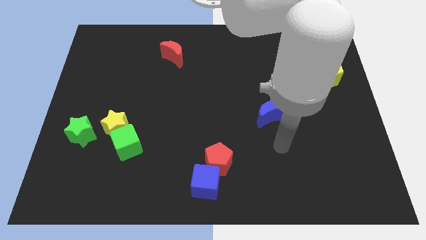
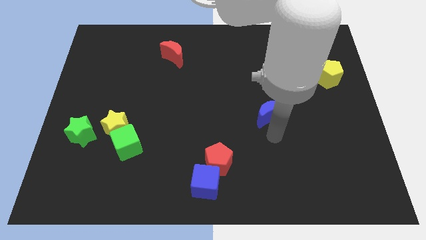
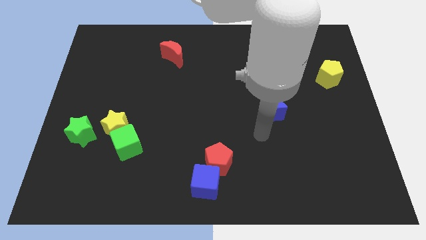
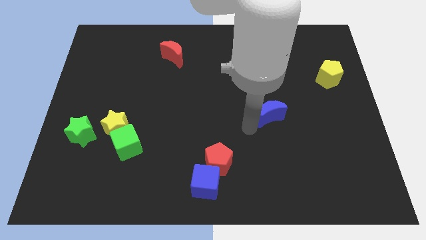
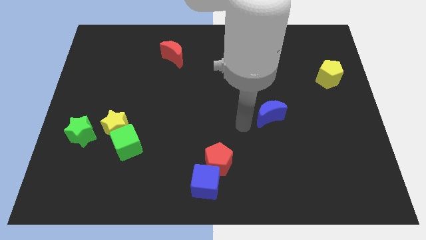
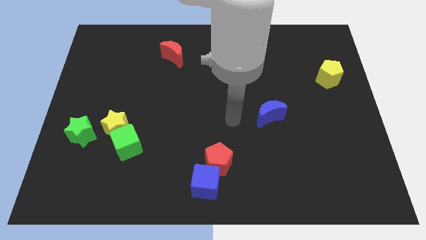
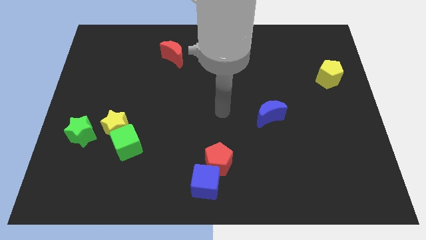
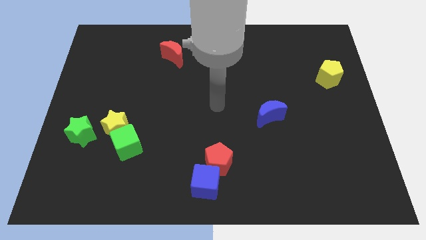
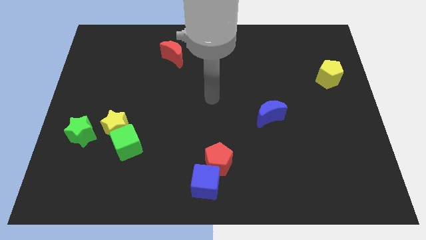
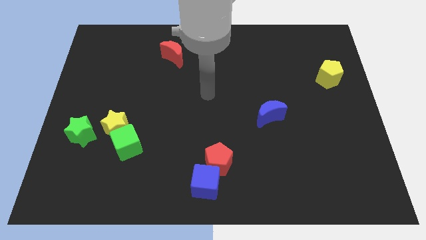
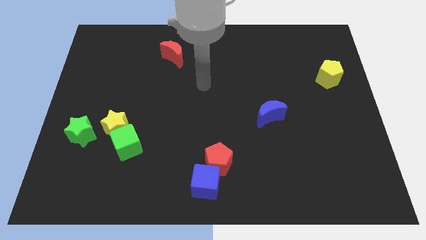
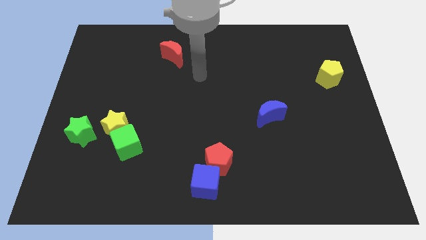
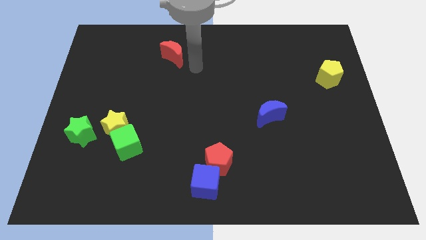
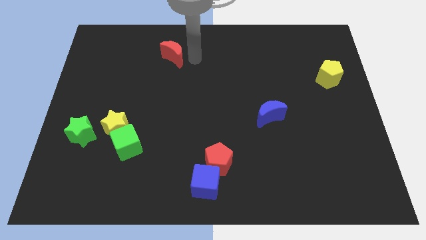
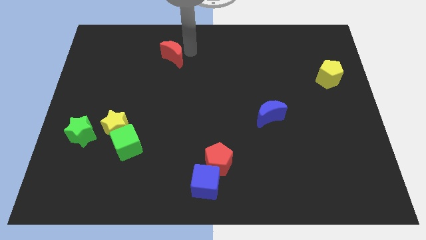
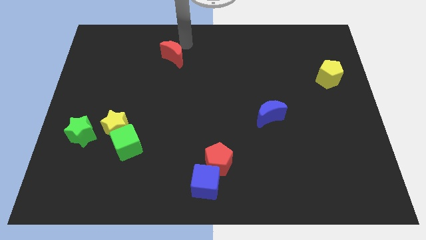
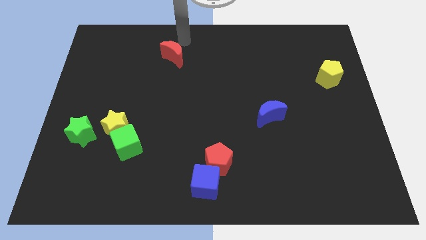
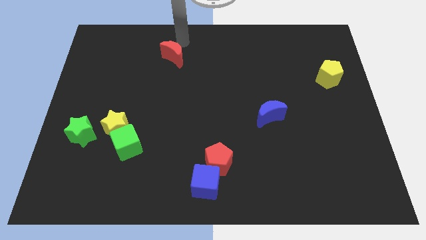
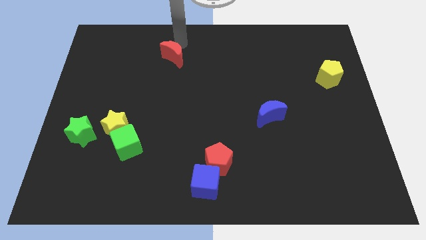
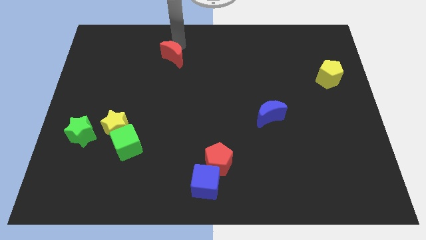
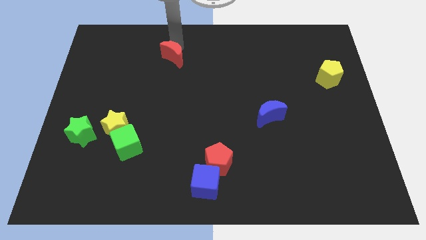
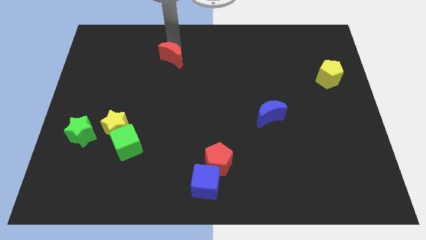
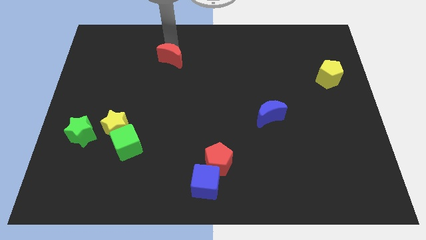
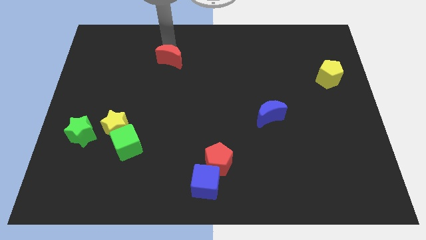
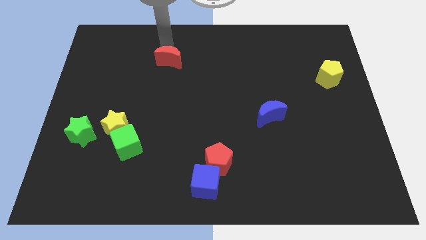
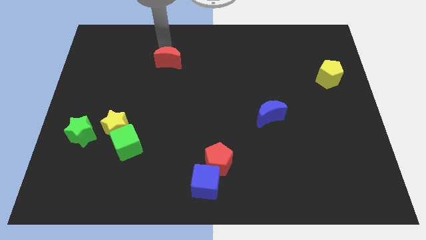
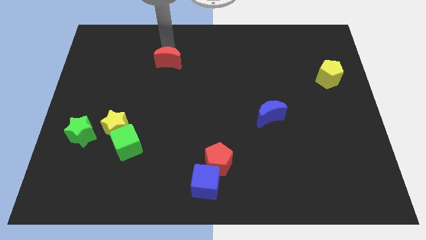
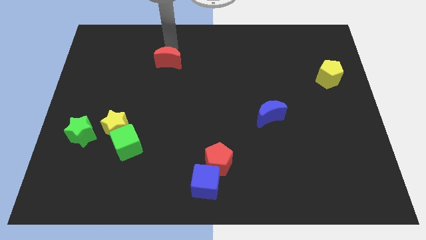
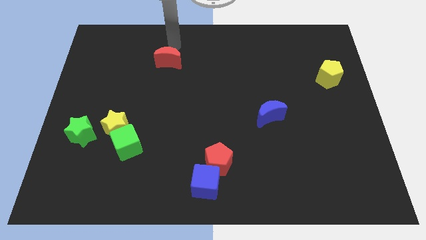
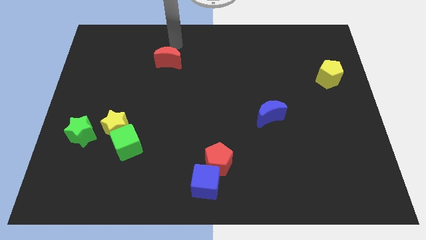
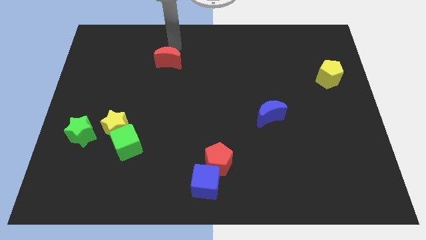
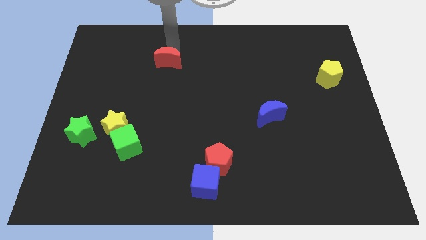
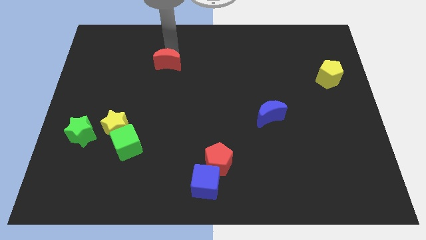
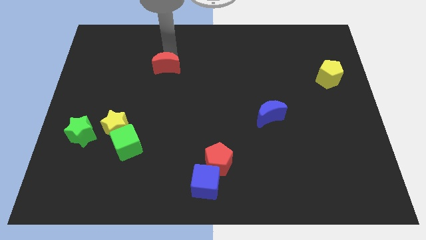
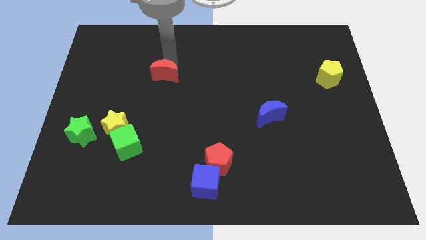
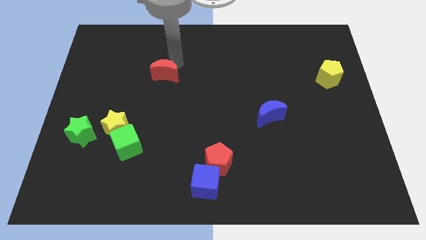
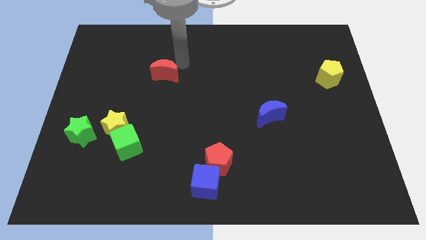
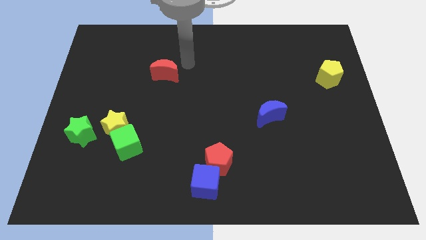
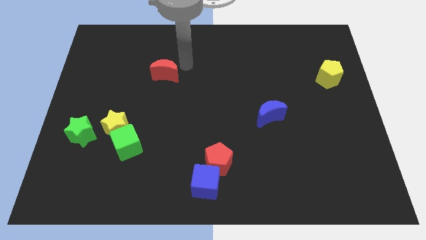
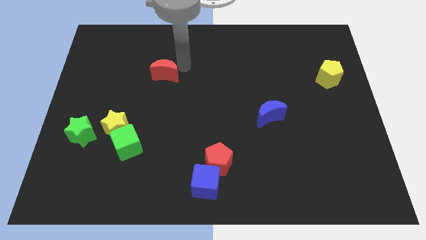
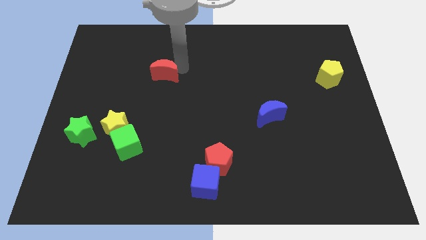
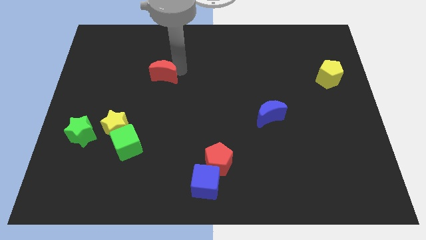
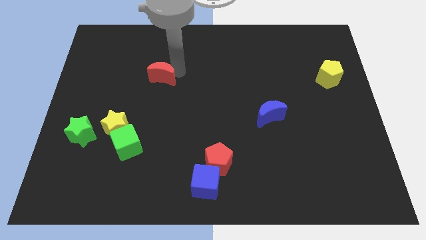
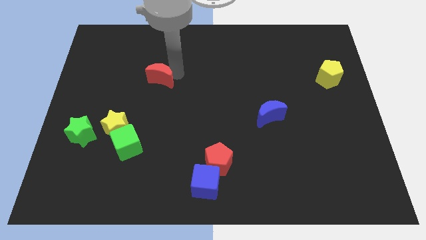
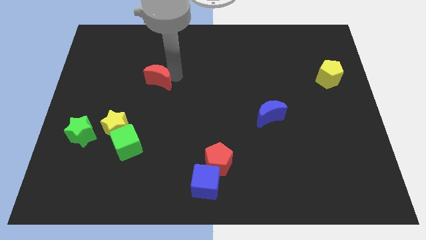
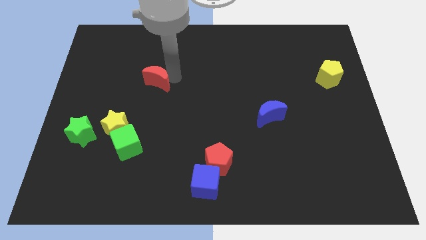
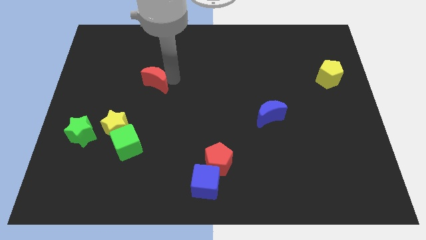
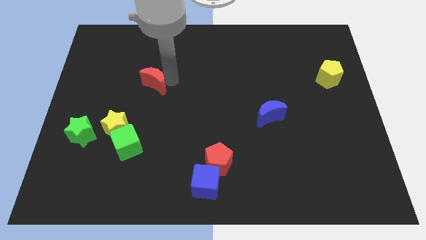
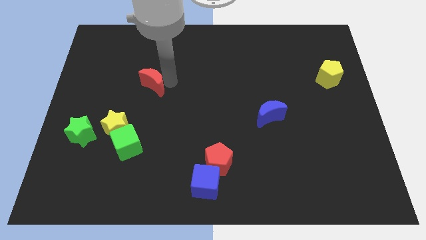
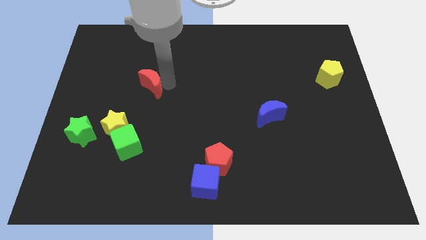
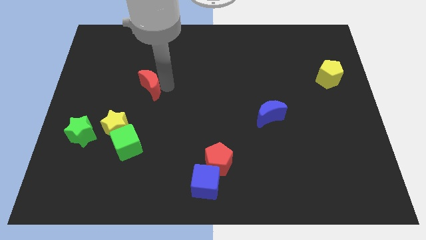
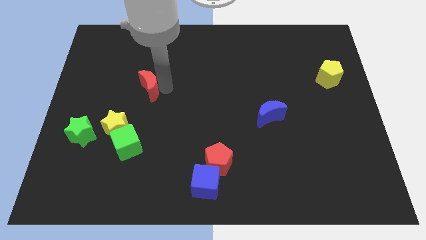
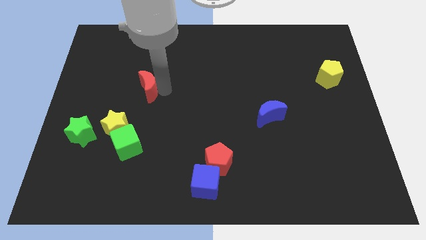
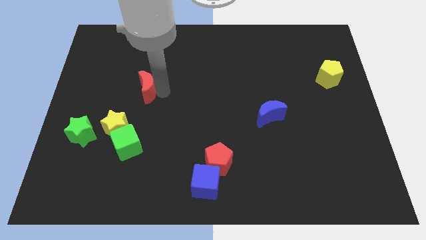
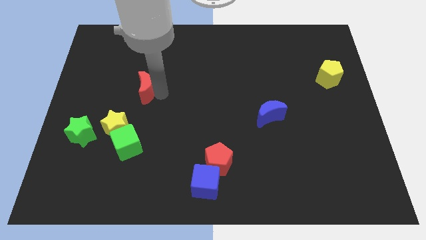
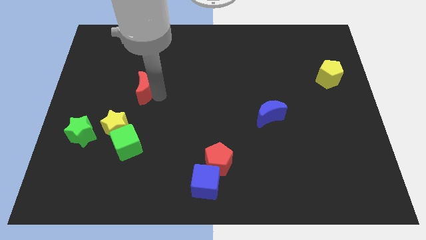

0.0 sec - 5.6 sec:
slide the red moon above the yellow star

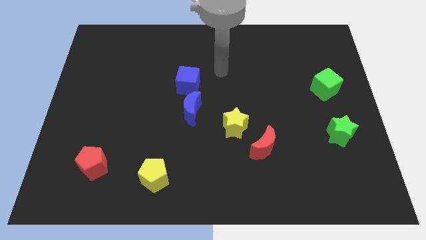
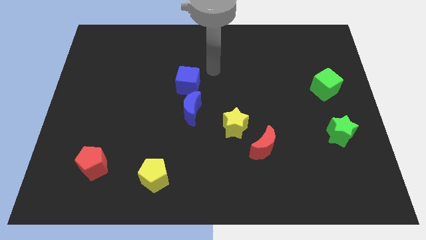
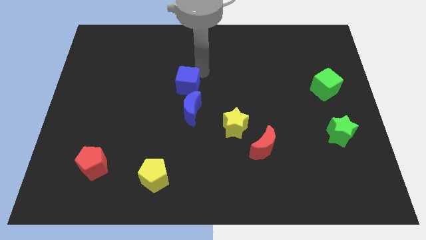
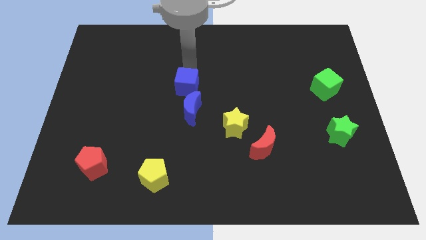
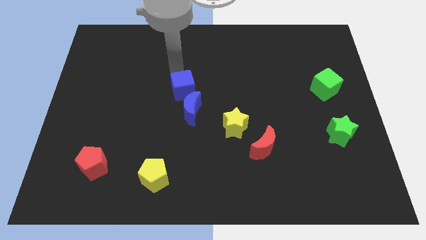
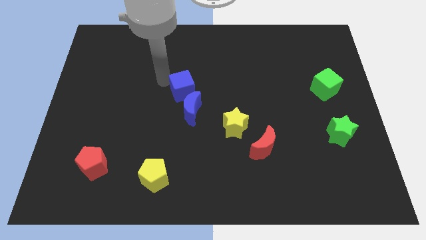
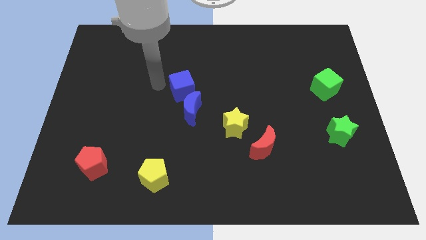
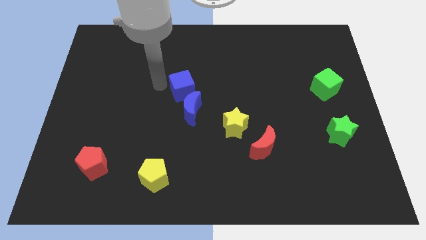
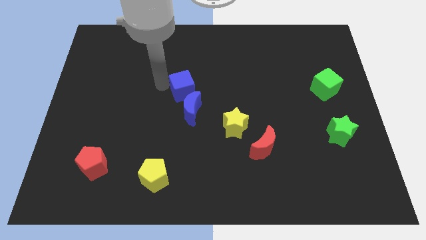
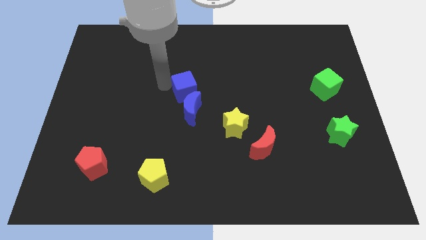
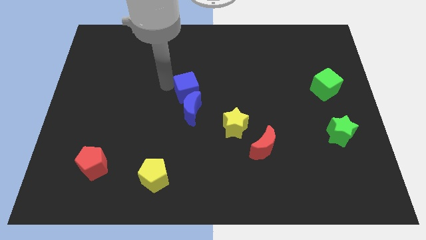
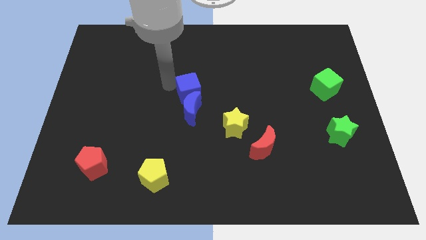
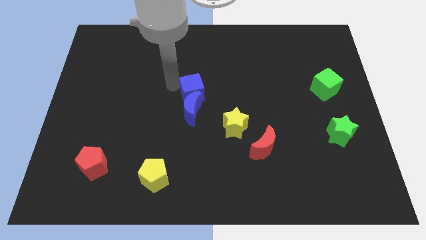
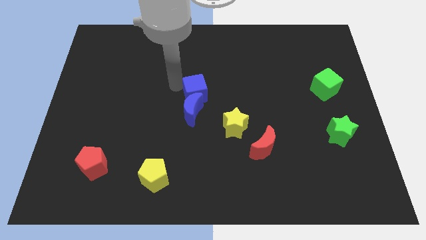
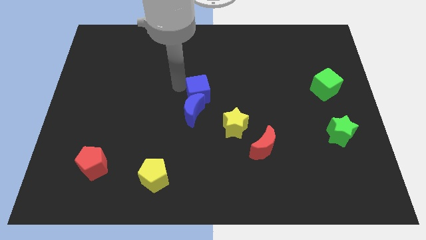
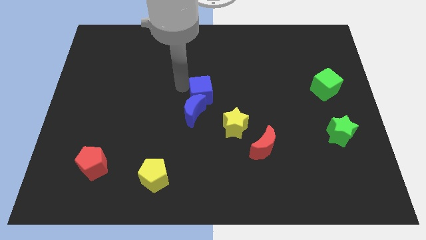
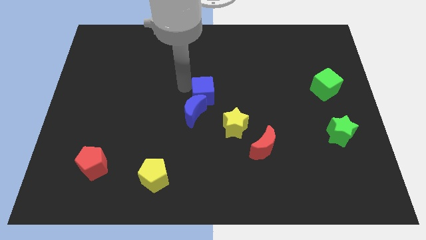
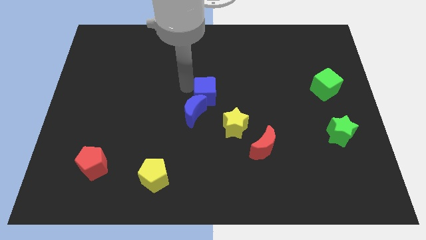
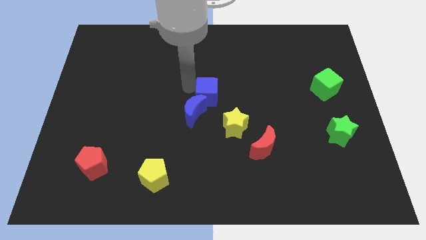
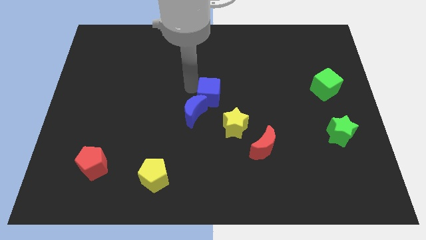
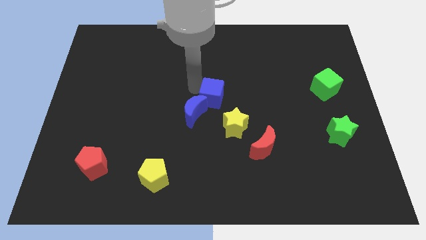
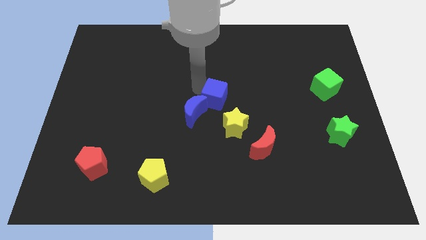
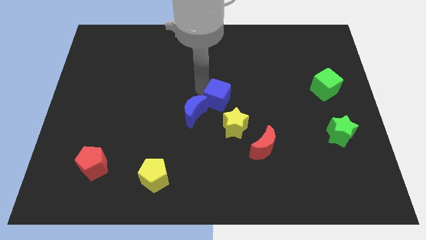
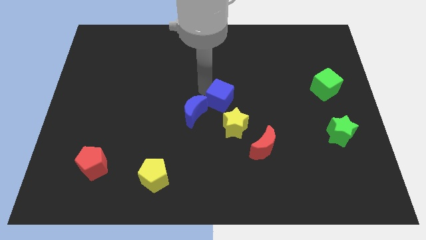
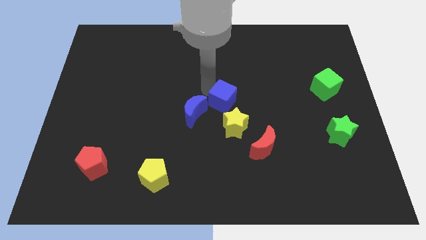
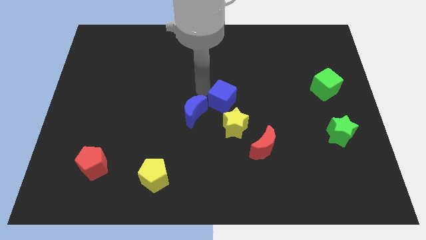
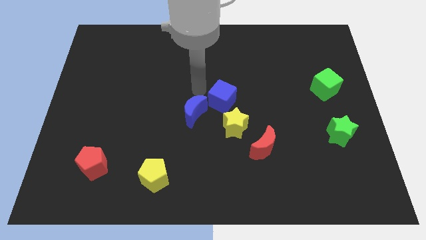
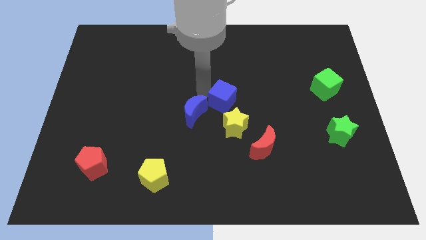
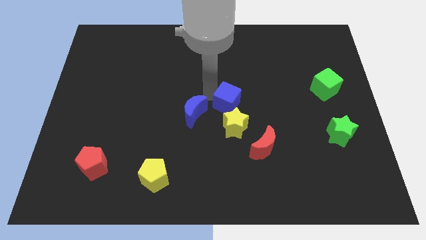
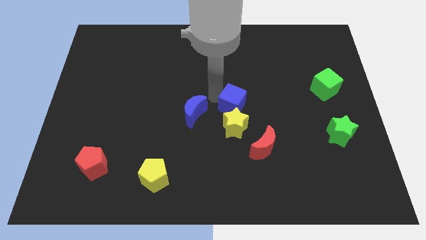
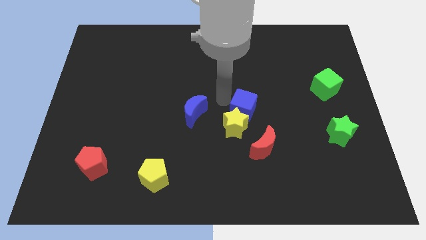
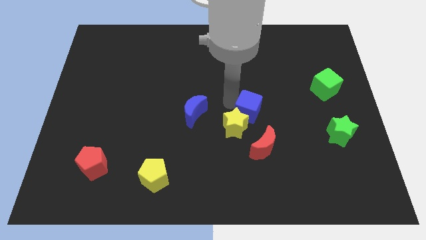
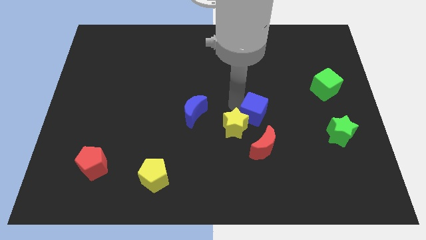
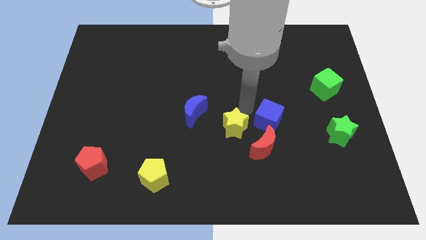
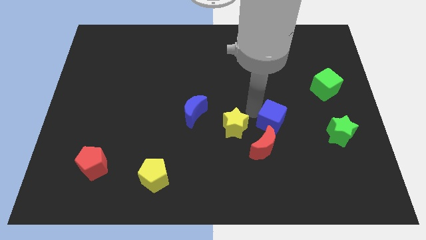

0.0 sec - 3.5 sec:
push the blue cube just left of the green star
